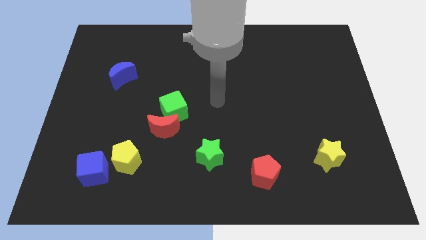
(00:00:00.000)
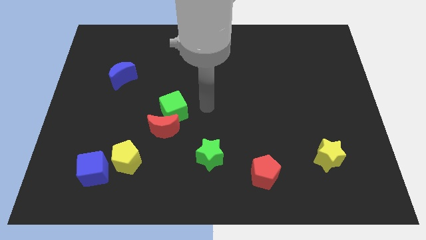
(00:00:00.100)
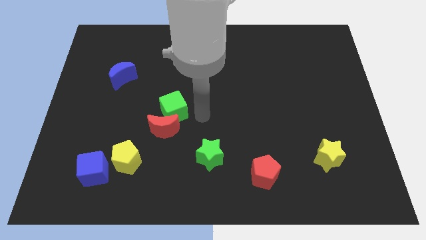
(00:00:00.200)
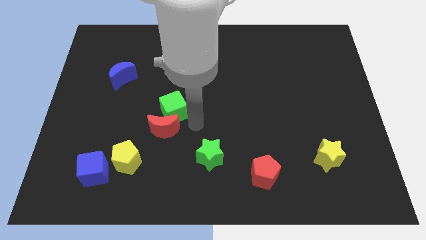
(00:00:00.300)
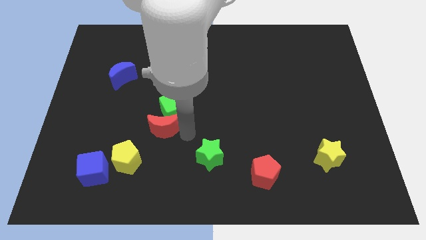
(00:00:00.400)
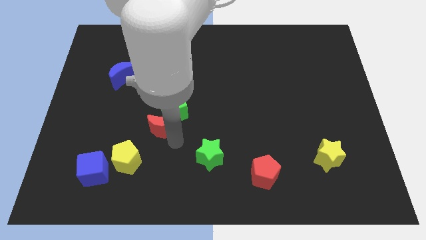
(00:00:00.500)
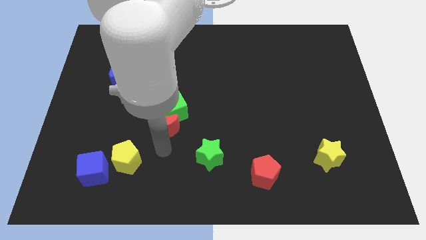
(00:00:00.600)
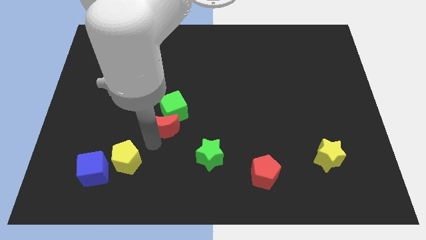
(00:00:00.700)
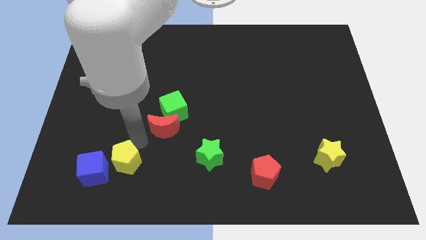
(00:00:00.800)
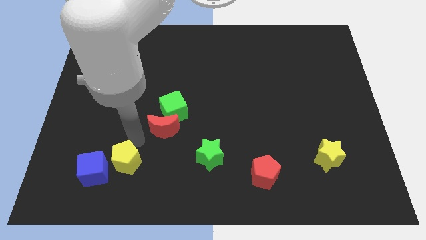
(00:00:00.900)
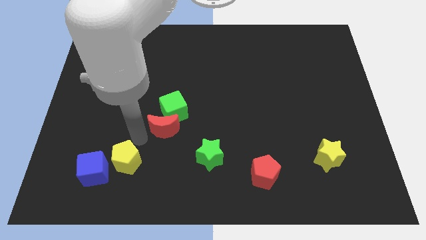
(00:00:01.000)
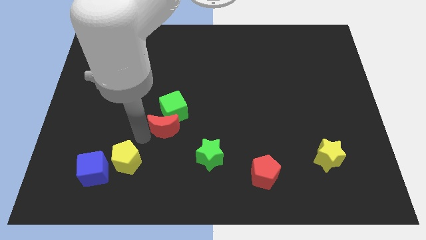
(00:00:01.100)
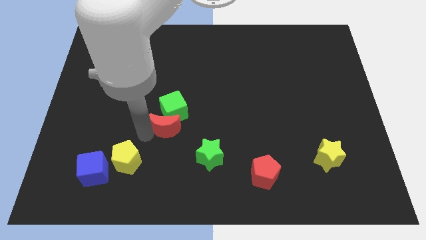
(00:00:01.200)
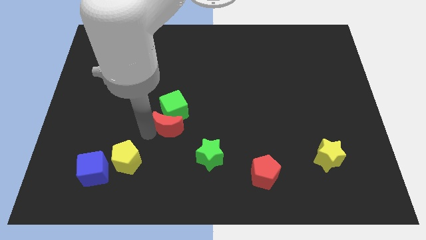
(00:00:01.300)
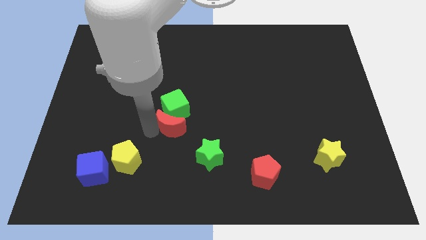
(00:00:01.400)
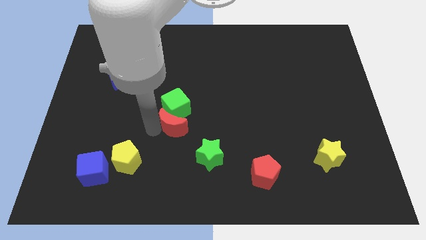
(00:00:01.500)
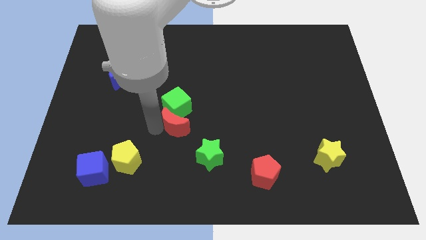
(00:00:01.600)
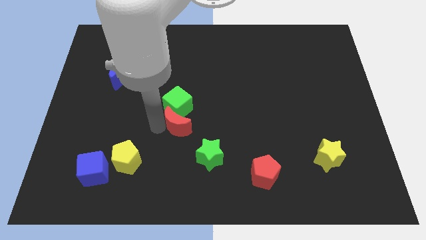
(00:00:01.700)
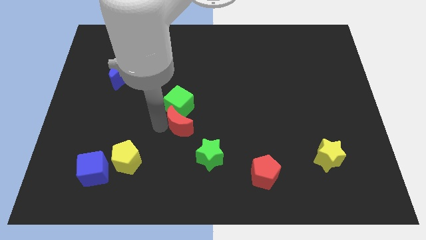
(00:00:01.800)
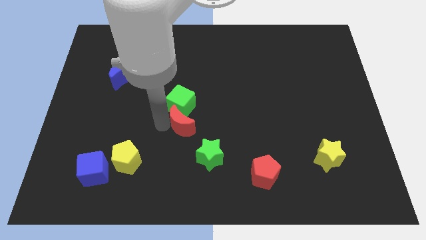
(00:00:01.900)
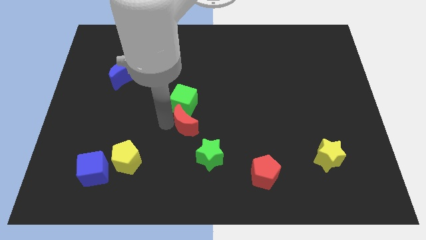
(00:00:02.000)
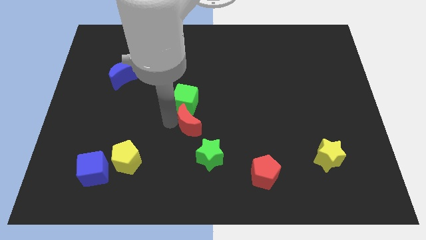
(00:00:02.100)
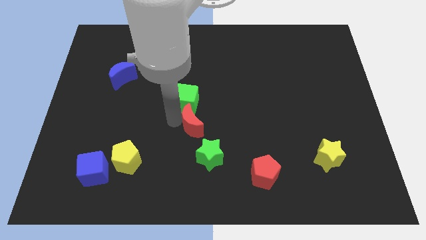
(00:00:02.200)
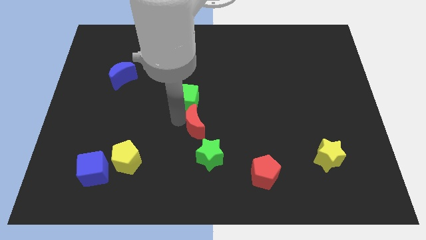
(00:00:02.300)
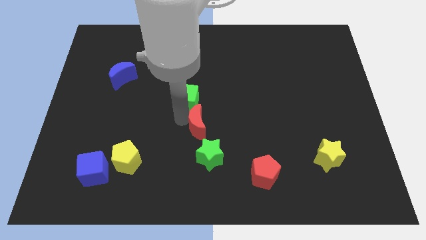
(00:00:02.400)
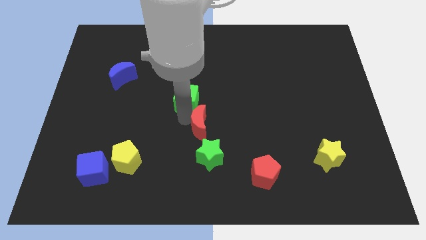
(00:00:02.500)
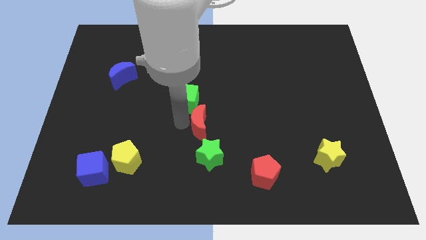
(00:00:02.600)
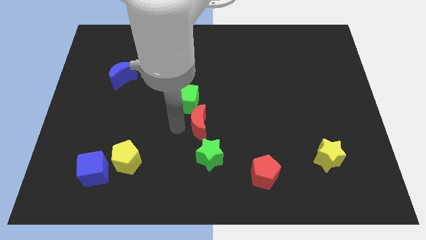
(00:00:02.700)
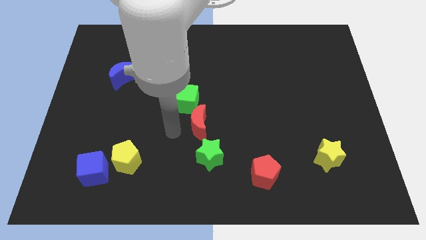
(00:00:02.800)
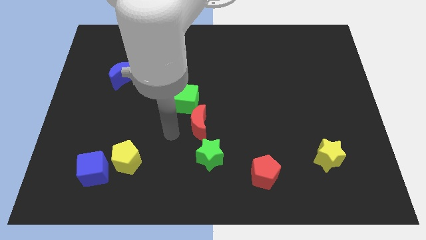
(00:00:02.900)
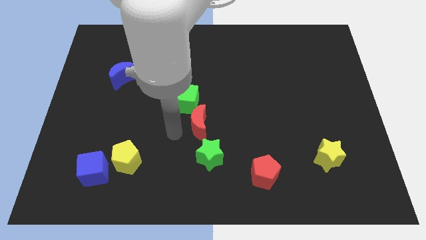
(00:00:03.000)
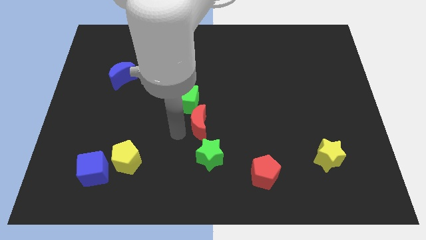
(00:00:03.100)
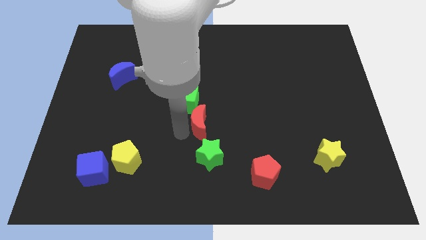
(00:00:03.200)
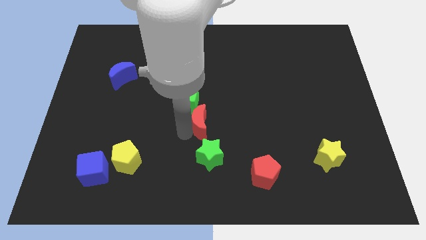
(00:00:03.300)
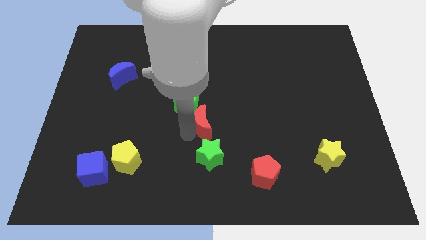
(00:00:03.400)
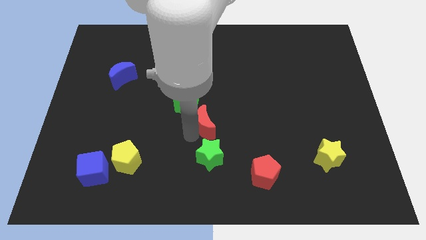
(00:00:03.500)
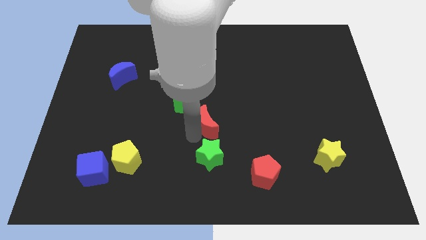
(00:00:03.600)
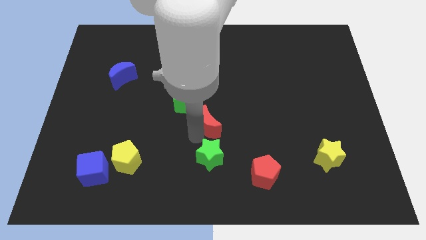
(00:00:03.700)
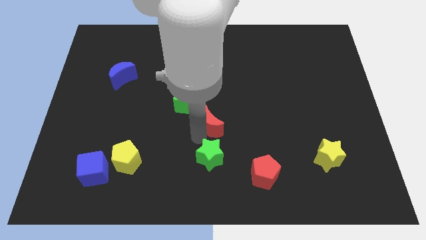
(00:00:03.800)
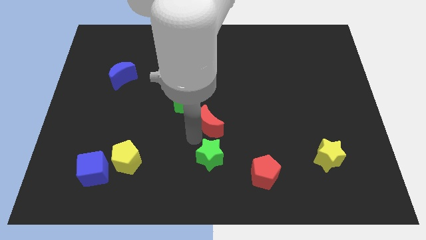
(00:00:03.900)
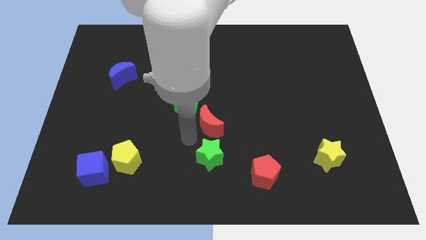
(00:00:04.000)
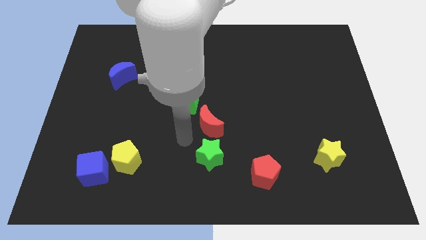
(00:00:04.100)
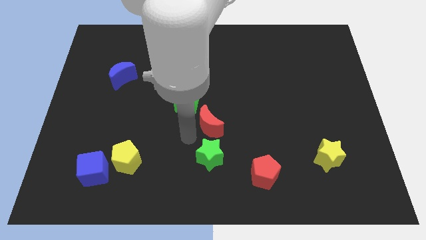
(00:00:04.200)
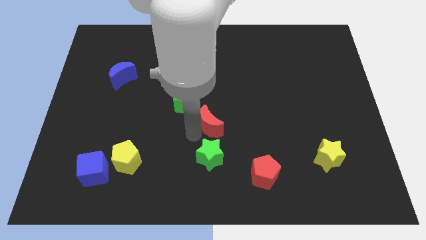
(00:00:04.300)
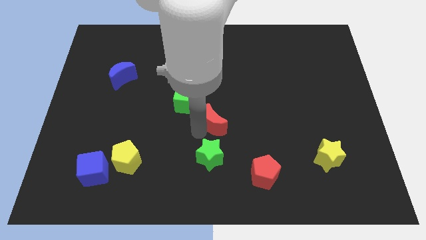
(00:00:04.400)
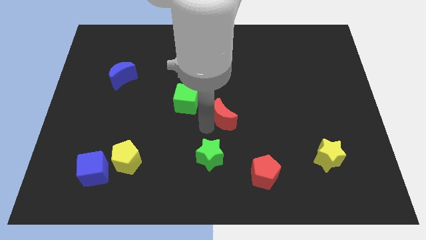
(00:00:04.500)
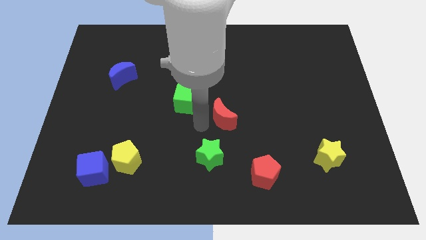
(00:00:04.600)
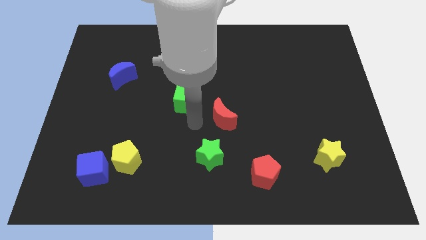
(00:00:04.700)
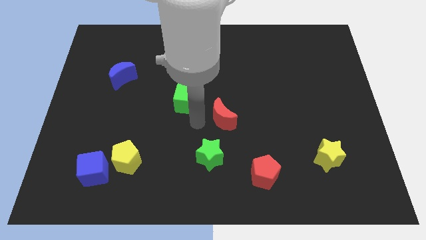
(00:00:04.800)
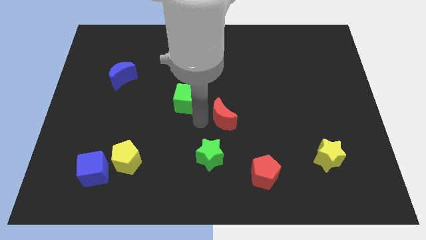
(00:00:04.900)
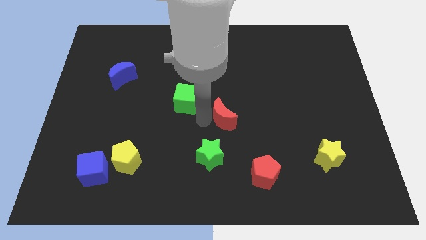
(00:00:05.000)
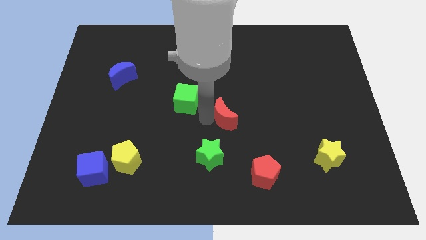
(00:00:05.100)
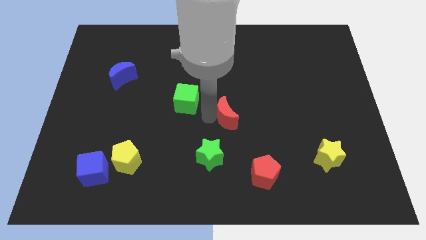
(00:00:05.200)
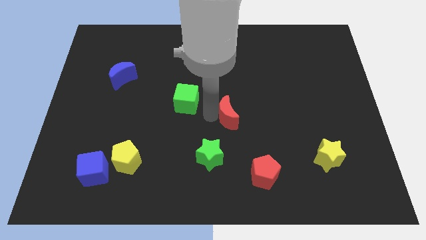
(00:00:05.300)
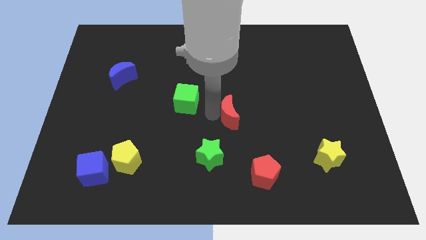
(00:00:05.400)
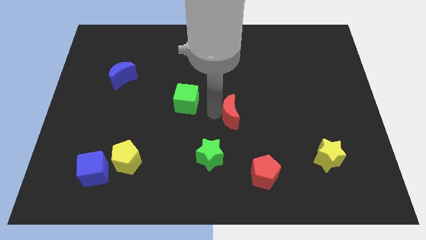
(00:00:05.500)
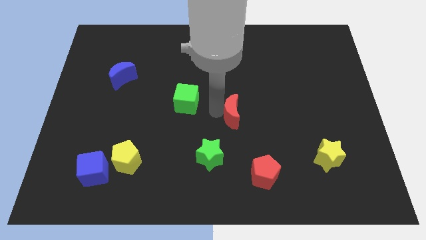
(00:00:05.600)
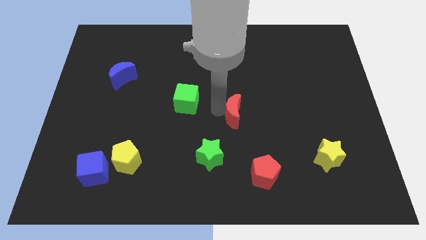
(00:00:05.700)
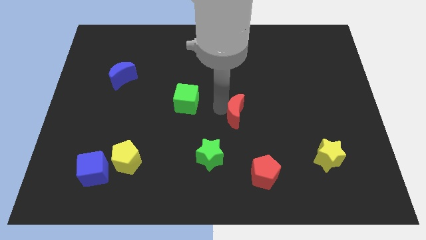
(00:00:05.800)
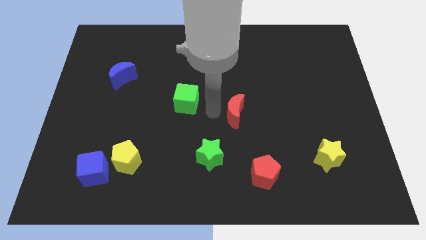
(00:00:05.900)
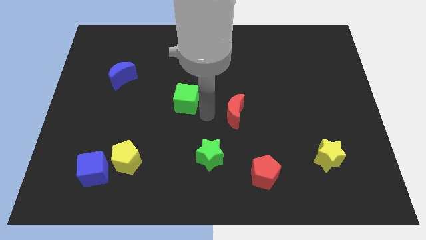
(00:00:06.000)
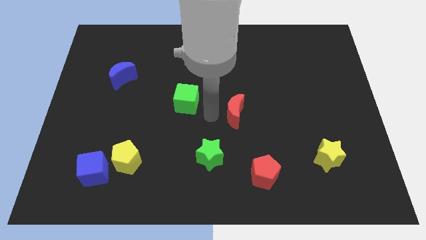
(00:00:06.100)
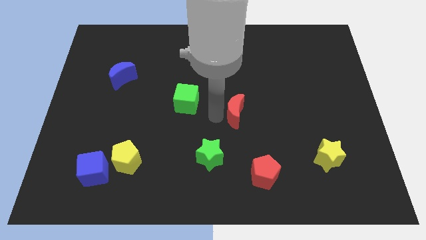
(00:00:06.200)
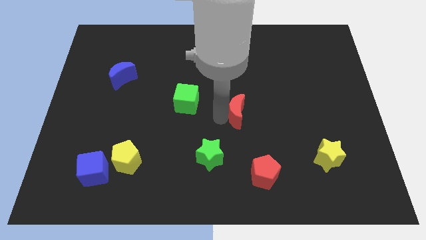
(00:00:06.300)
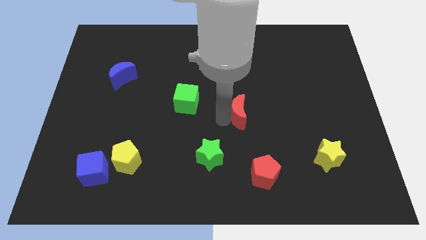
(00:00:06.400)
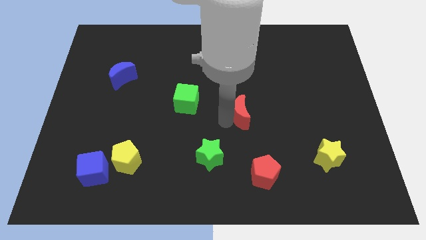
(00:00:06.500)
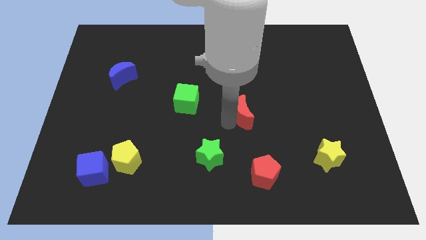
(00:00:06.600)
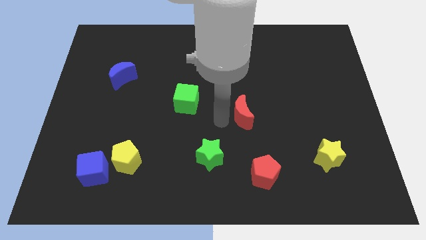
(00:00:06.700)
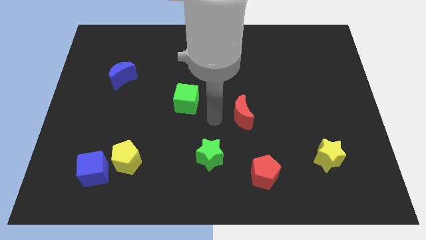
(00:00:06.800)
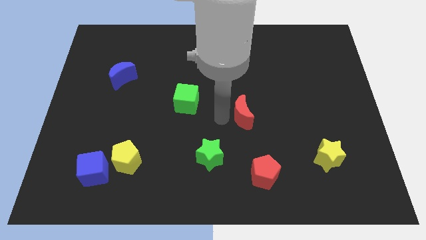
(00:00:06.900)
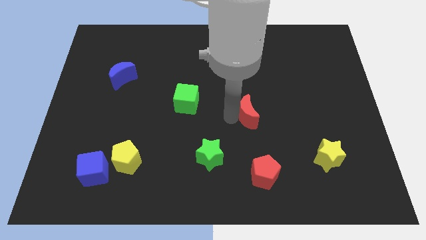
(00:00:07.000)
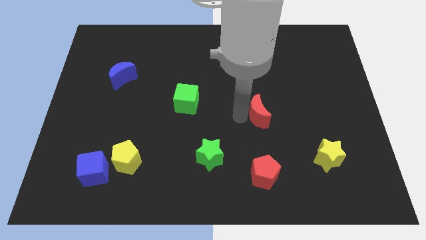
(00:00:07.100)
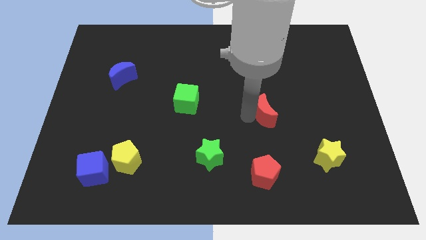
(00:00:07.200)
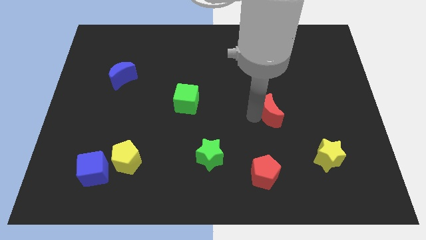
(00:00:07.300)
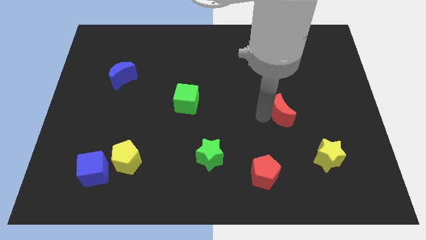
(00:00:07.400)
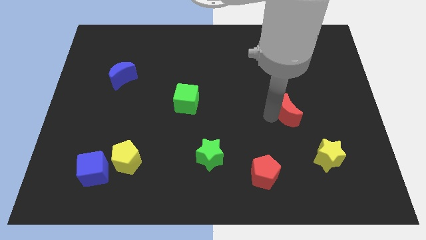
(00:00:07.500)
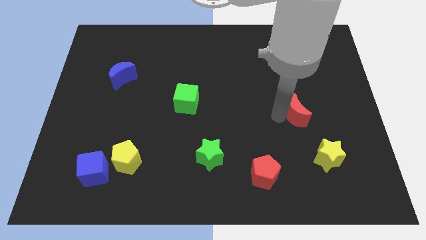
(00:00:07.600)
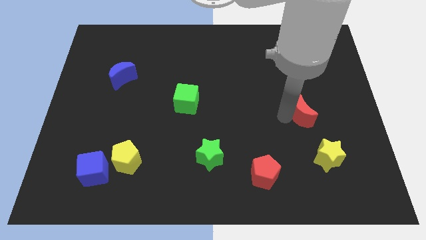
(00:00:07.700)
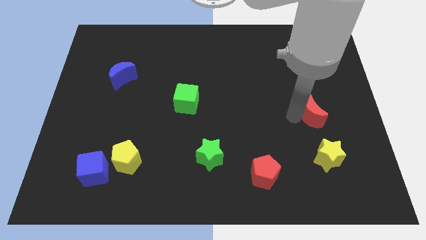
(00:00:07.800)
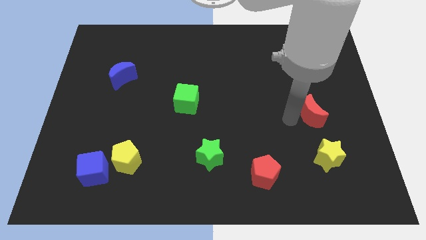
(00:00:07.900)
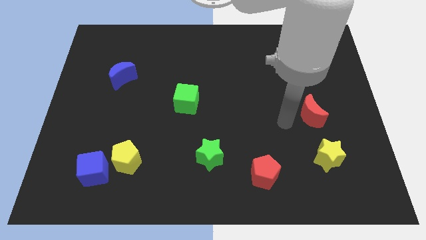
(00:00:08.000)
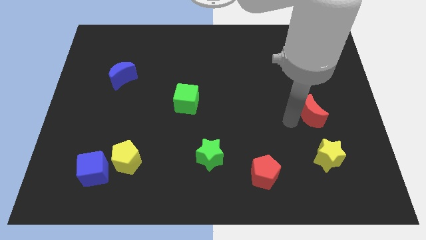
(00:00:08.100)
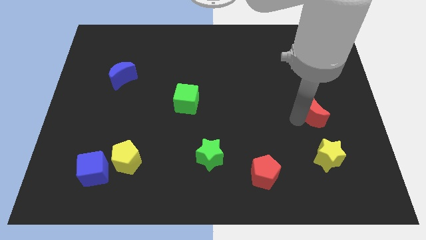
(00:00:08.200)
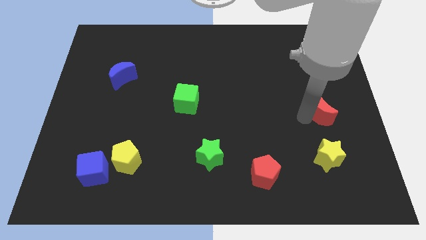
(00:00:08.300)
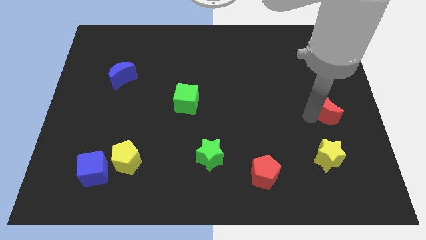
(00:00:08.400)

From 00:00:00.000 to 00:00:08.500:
move the red moon to the right side of the board
